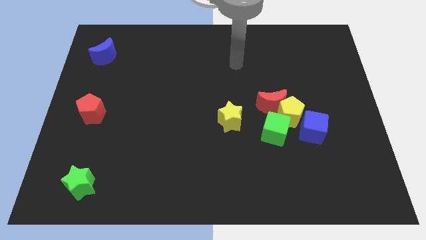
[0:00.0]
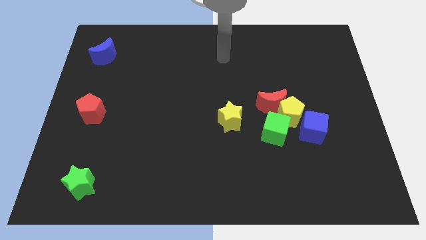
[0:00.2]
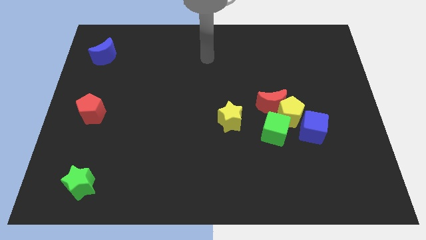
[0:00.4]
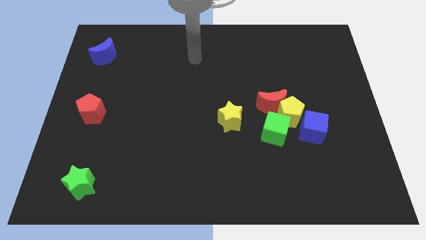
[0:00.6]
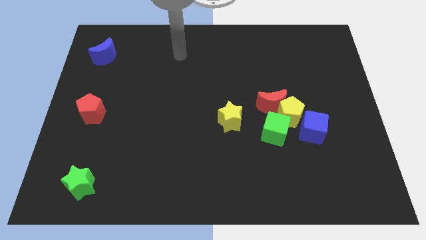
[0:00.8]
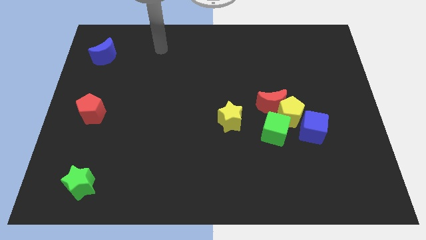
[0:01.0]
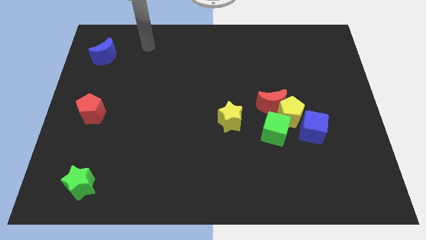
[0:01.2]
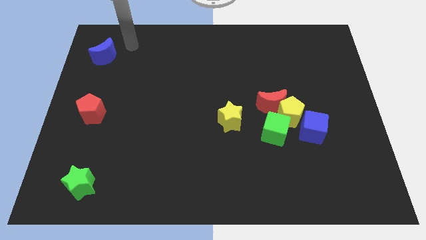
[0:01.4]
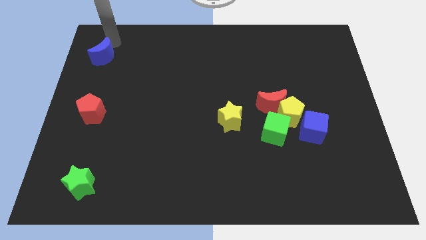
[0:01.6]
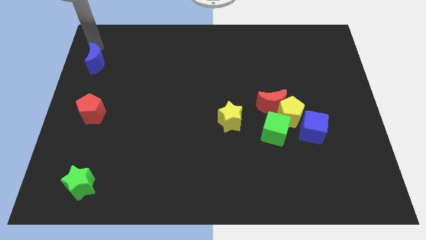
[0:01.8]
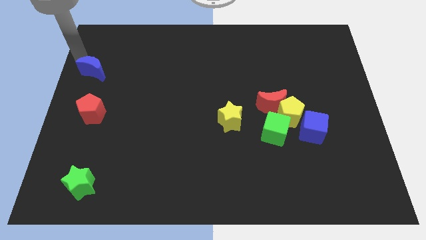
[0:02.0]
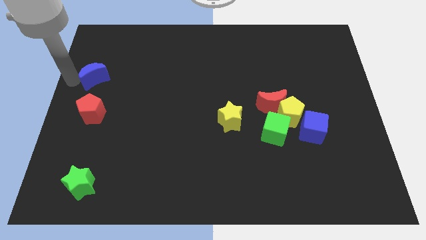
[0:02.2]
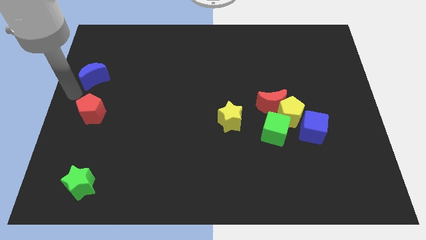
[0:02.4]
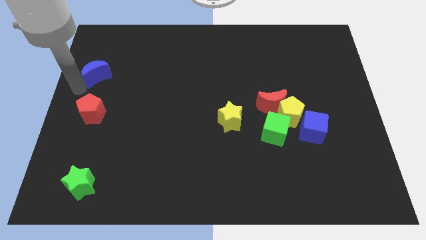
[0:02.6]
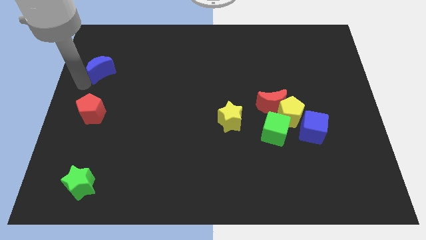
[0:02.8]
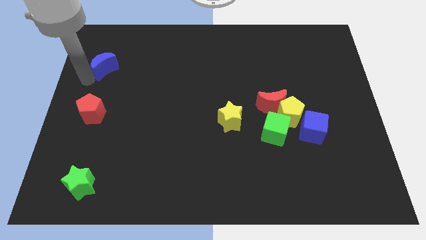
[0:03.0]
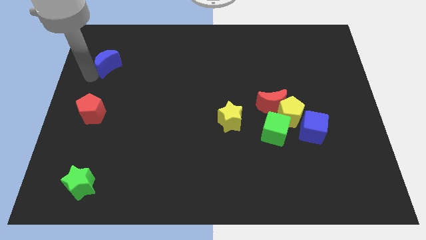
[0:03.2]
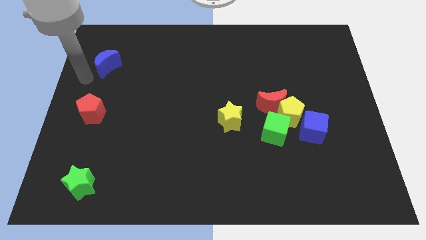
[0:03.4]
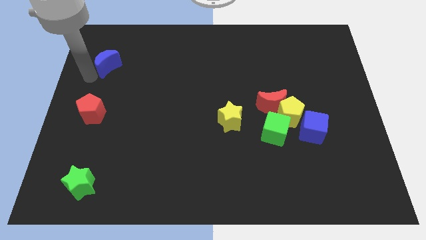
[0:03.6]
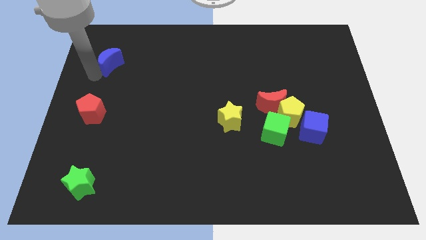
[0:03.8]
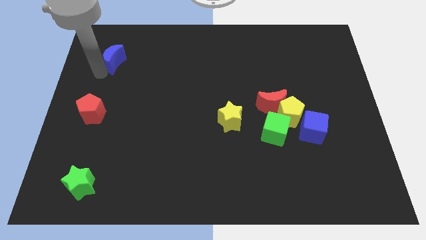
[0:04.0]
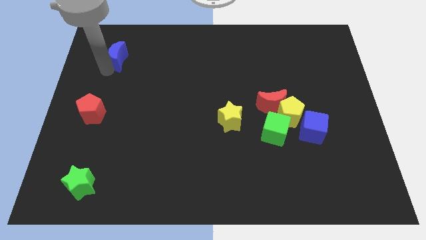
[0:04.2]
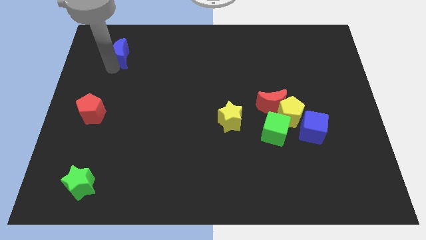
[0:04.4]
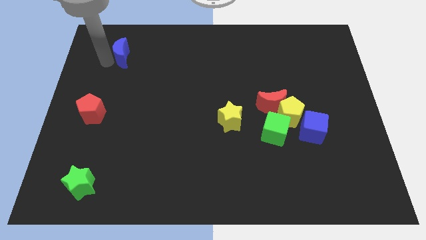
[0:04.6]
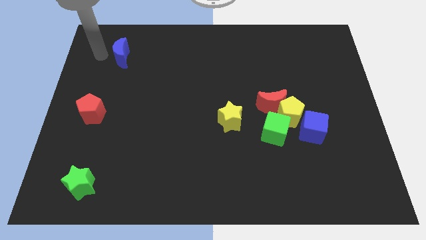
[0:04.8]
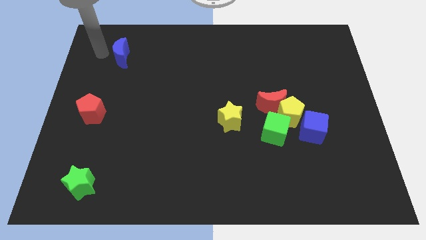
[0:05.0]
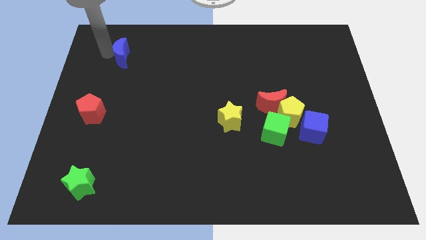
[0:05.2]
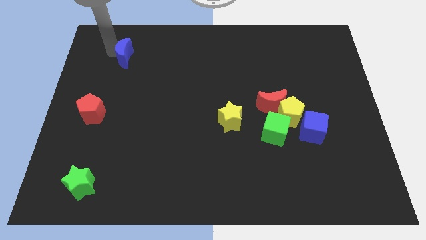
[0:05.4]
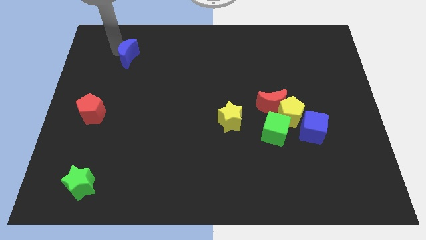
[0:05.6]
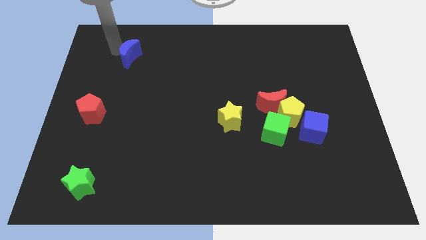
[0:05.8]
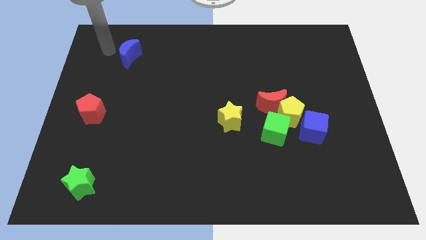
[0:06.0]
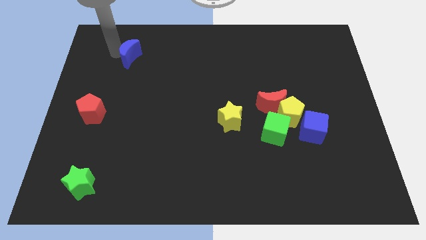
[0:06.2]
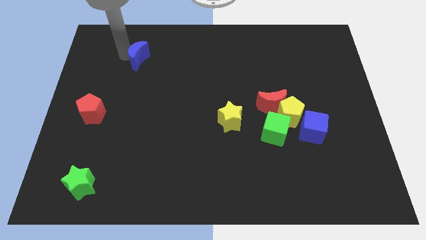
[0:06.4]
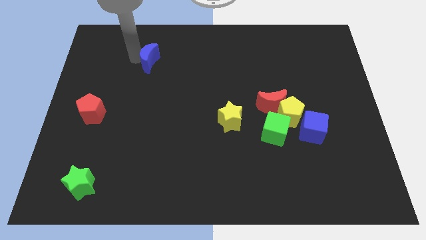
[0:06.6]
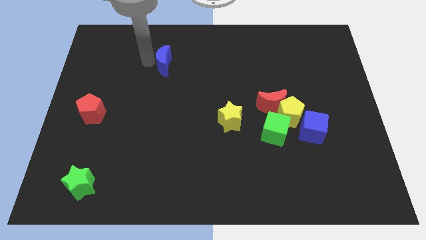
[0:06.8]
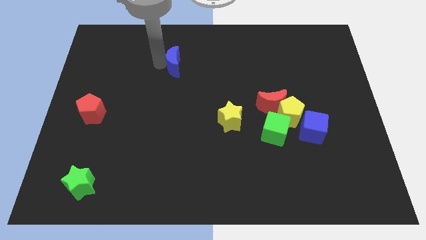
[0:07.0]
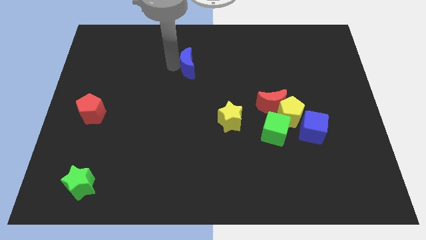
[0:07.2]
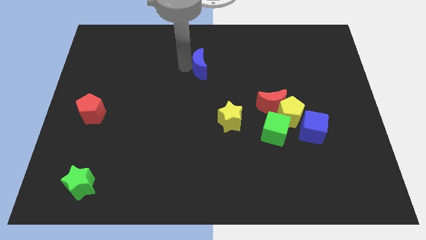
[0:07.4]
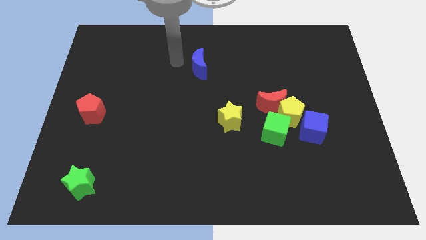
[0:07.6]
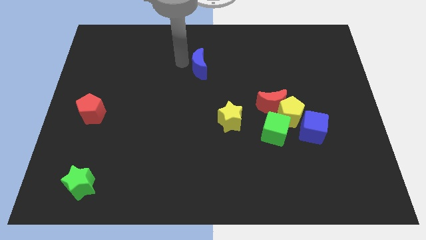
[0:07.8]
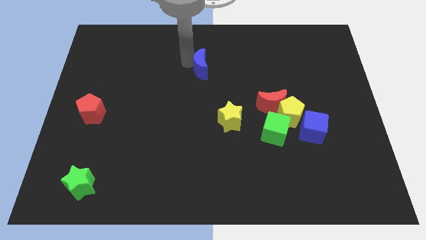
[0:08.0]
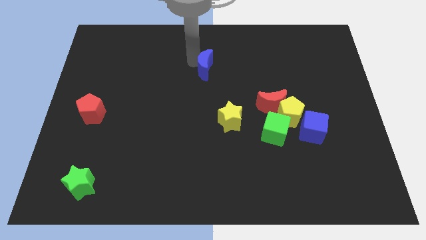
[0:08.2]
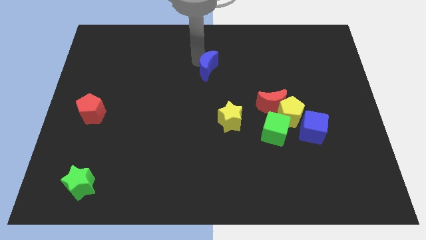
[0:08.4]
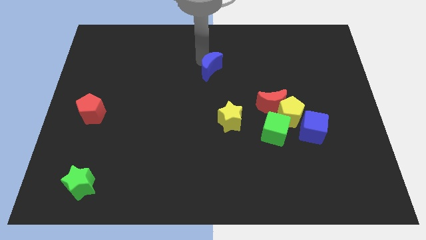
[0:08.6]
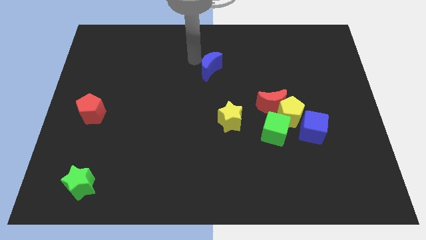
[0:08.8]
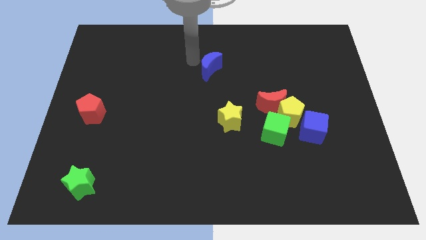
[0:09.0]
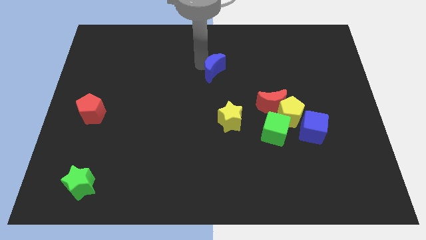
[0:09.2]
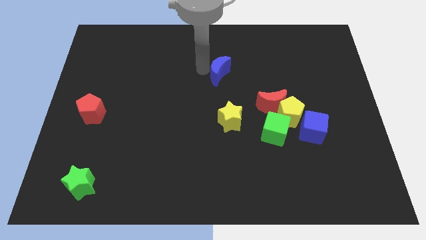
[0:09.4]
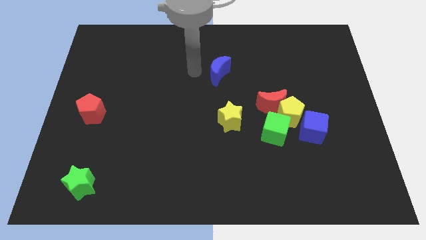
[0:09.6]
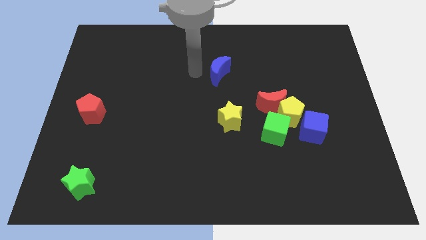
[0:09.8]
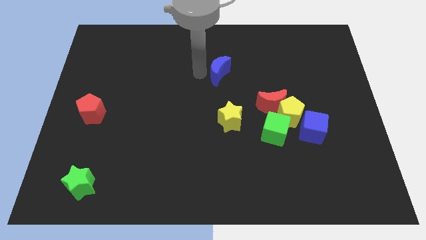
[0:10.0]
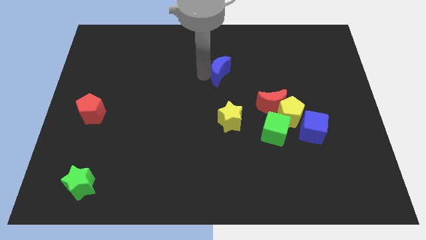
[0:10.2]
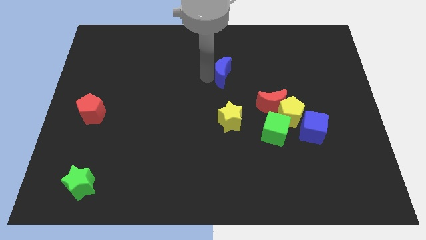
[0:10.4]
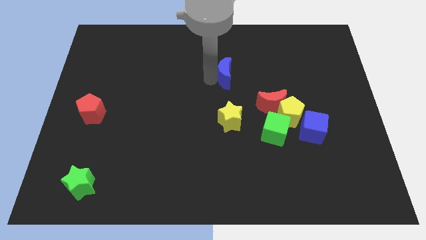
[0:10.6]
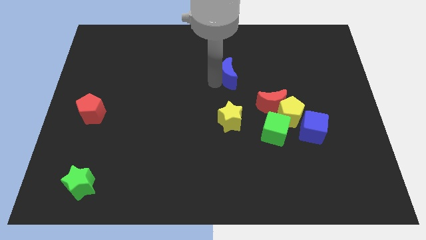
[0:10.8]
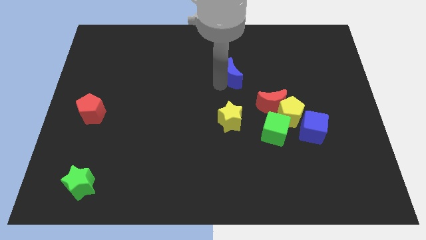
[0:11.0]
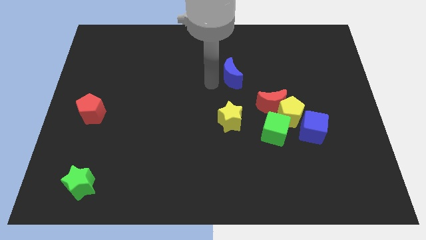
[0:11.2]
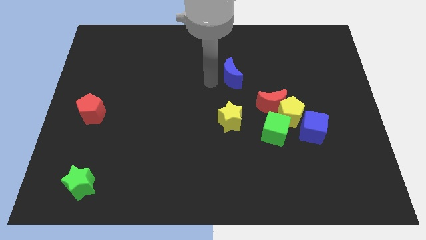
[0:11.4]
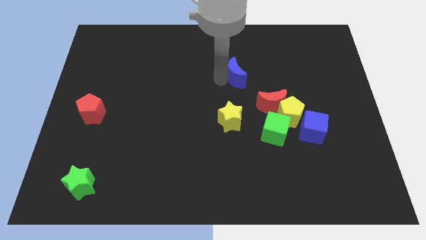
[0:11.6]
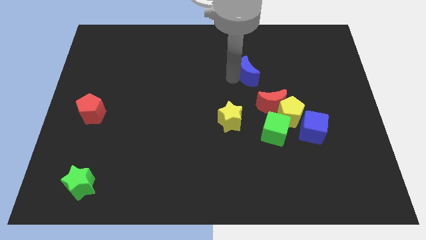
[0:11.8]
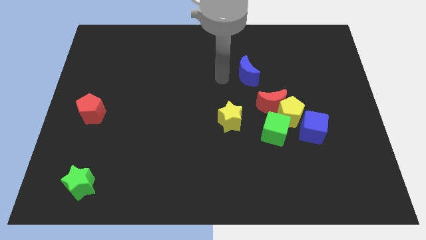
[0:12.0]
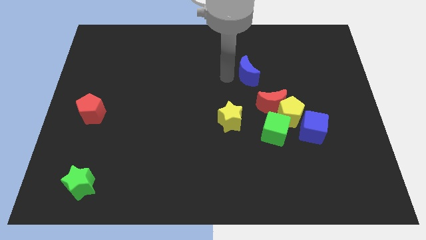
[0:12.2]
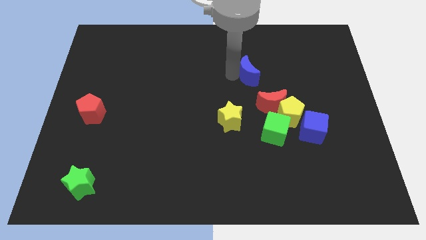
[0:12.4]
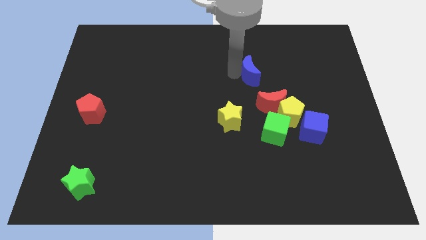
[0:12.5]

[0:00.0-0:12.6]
move the blue moon to the top of the red moon

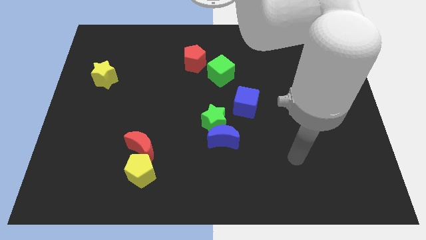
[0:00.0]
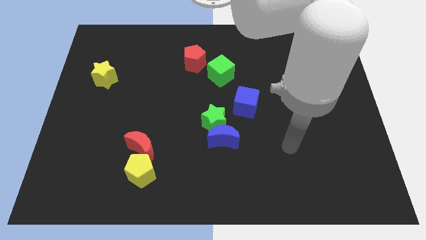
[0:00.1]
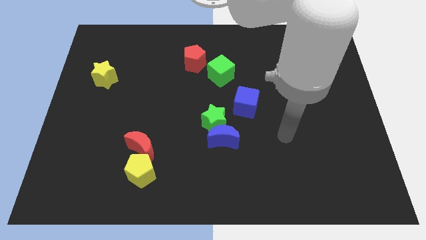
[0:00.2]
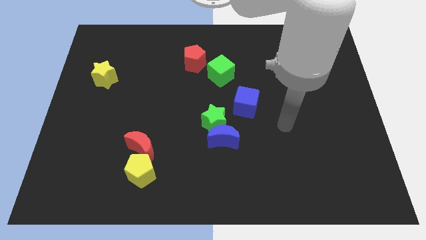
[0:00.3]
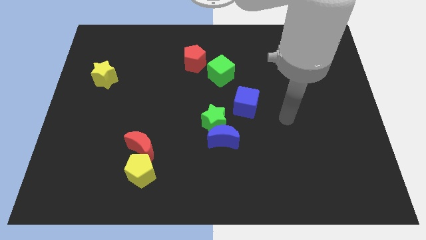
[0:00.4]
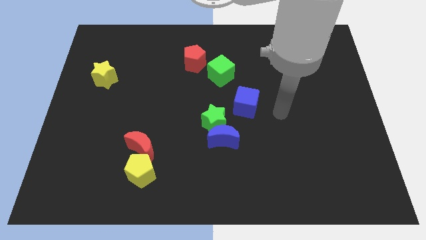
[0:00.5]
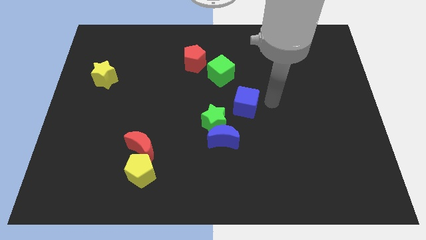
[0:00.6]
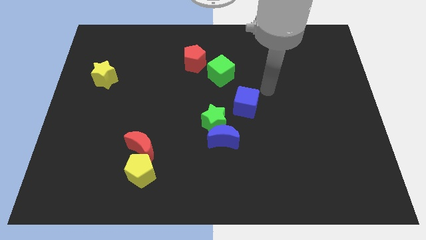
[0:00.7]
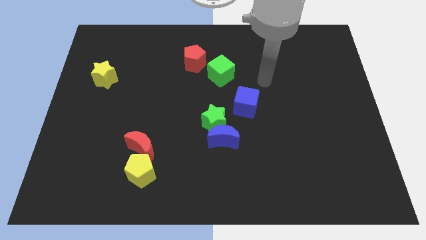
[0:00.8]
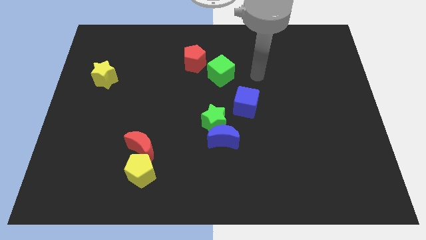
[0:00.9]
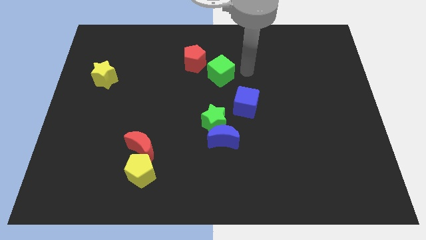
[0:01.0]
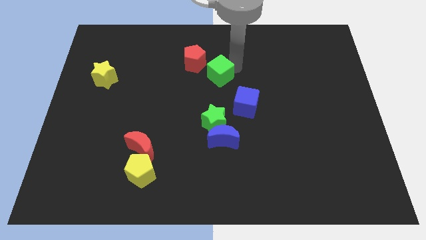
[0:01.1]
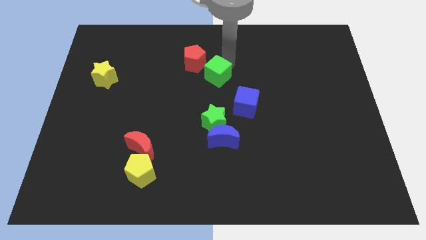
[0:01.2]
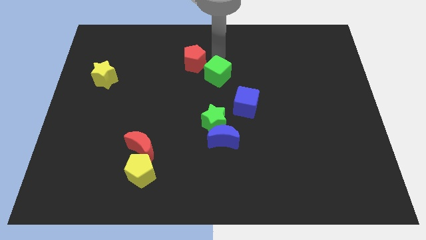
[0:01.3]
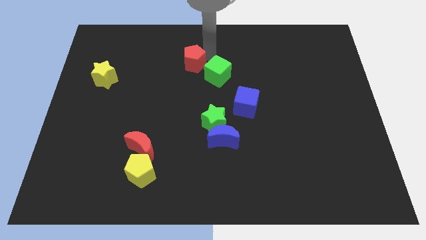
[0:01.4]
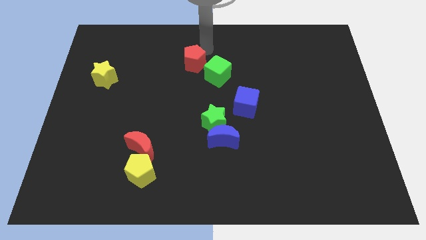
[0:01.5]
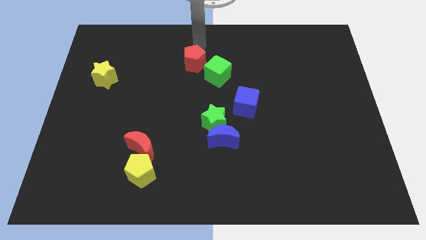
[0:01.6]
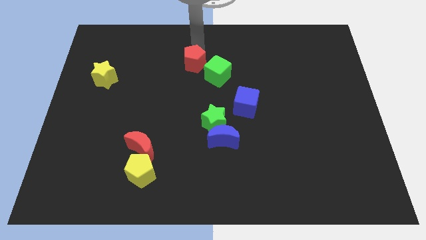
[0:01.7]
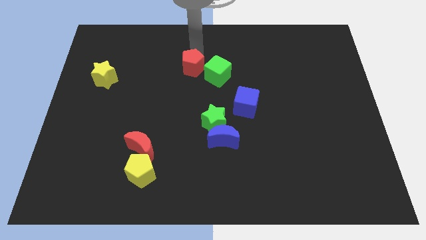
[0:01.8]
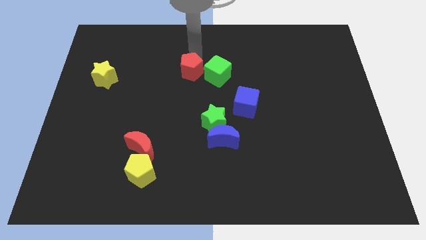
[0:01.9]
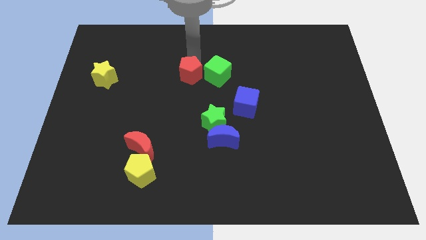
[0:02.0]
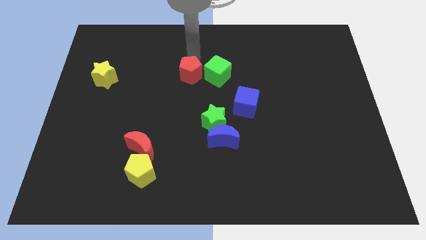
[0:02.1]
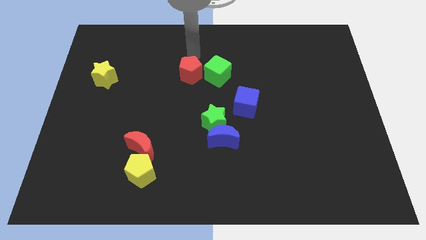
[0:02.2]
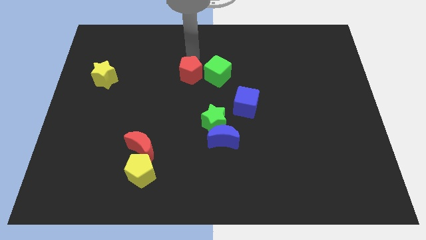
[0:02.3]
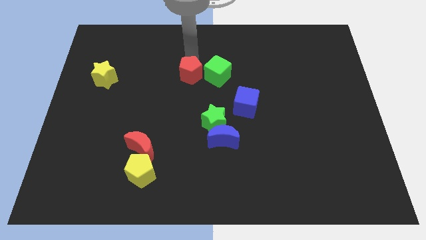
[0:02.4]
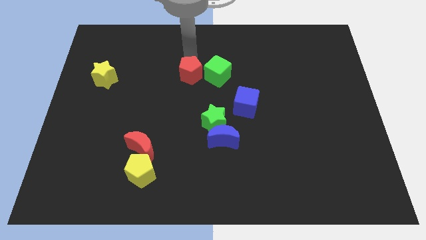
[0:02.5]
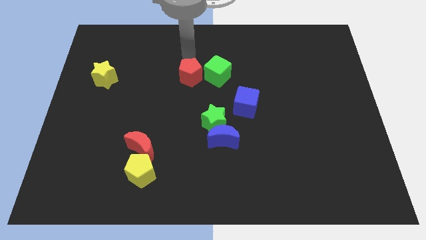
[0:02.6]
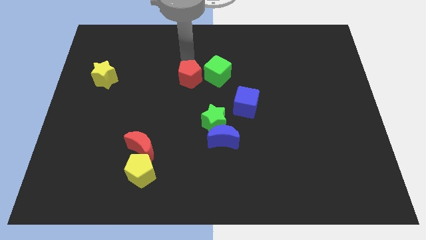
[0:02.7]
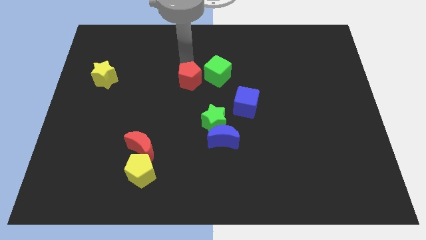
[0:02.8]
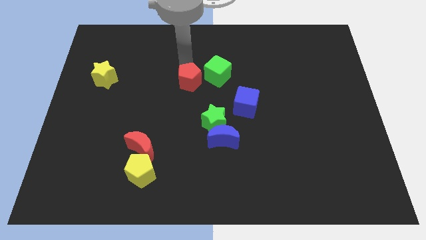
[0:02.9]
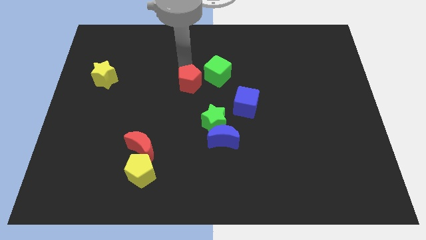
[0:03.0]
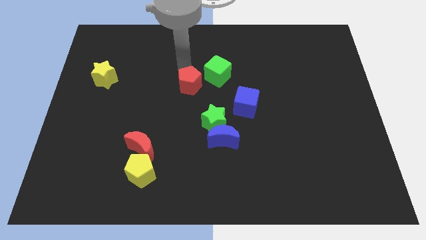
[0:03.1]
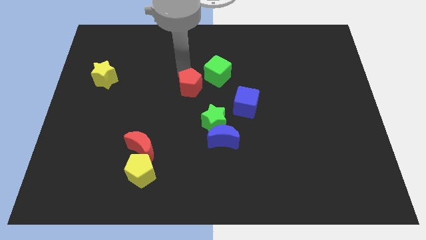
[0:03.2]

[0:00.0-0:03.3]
push the red pentagon diagonally up and to the left of the green star
